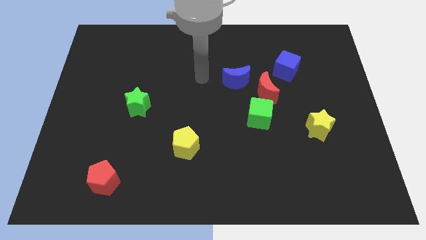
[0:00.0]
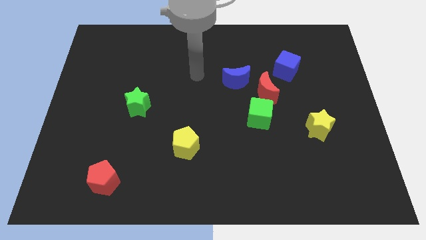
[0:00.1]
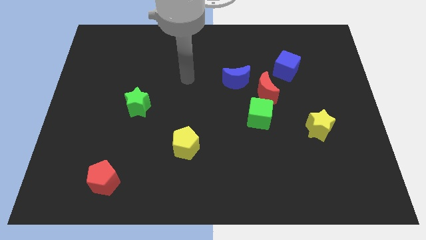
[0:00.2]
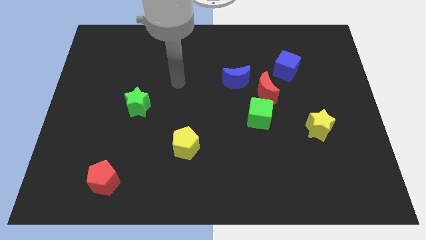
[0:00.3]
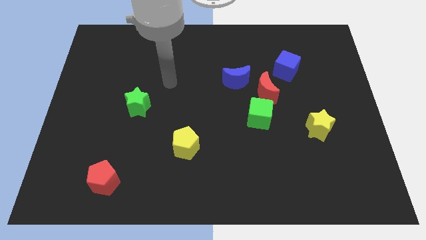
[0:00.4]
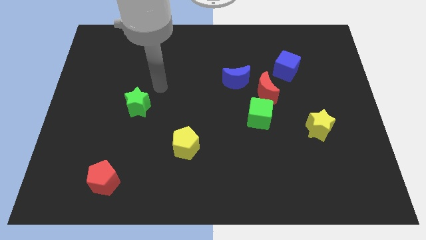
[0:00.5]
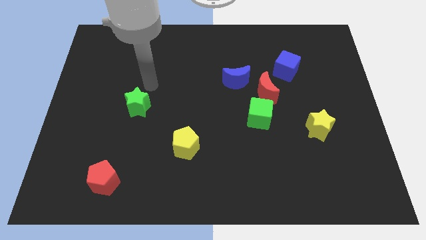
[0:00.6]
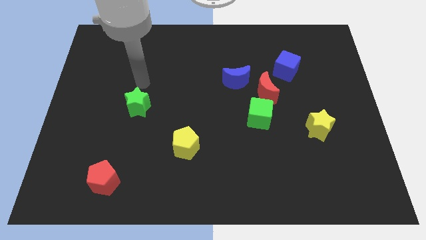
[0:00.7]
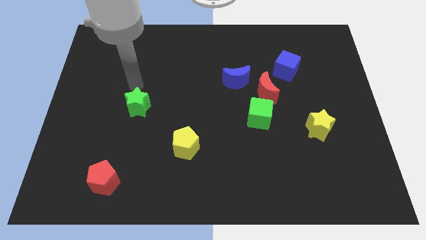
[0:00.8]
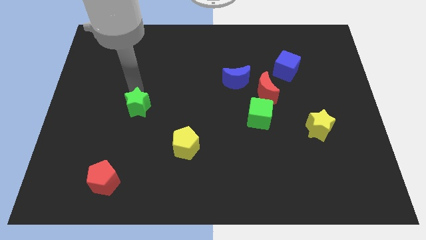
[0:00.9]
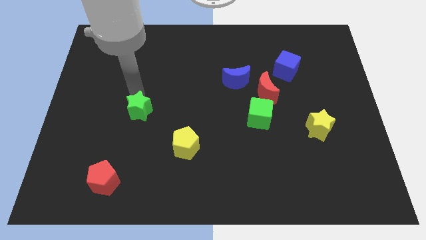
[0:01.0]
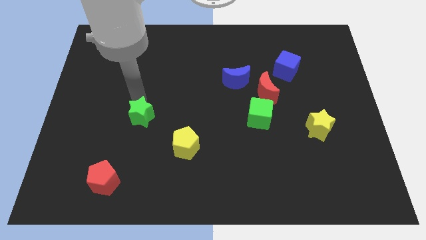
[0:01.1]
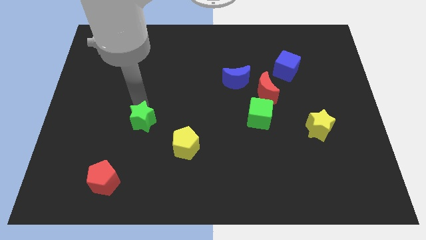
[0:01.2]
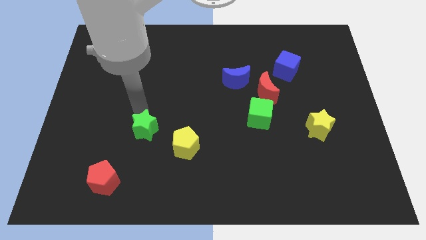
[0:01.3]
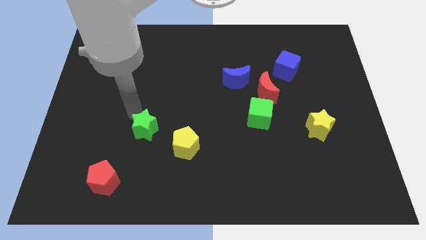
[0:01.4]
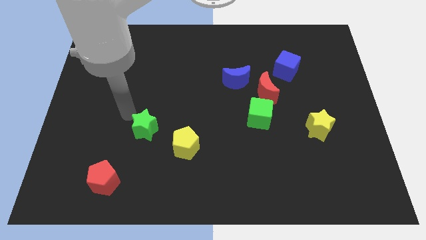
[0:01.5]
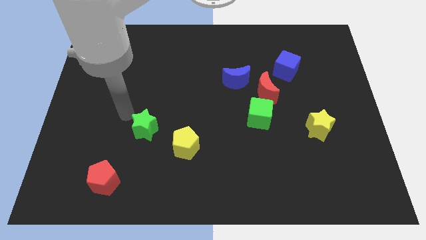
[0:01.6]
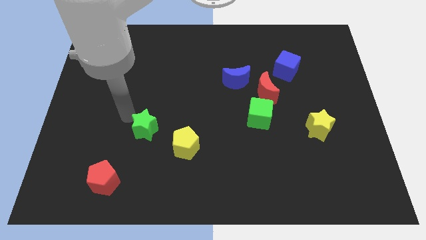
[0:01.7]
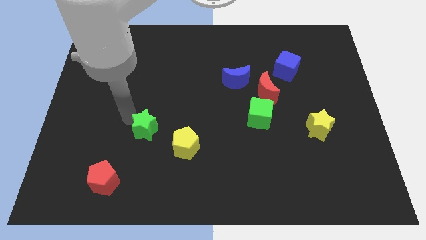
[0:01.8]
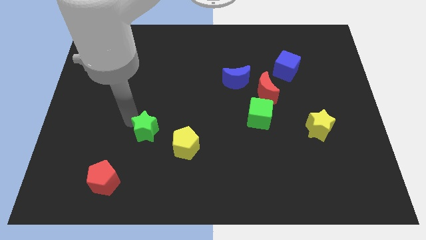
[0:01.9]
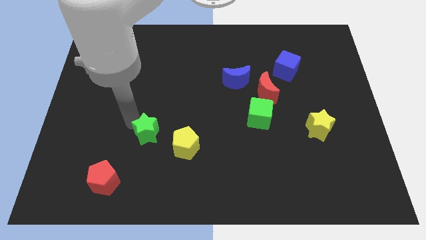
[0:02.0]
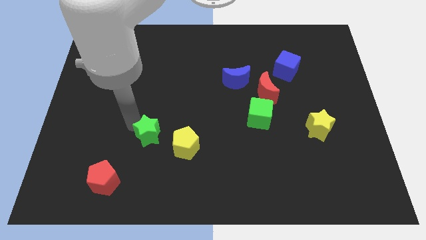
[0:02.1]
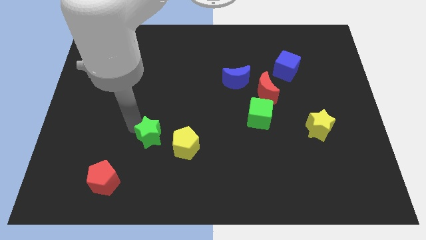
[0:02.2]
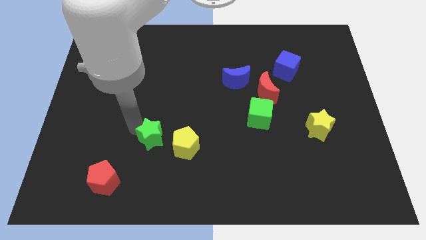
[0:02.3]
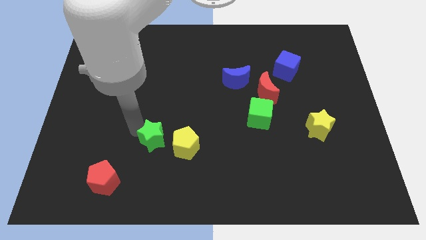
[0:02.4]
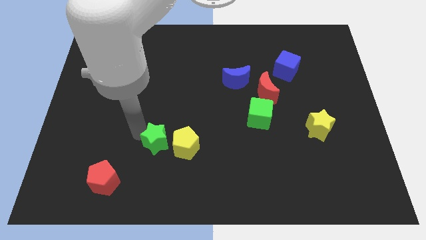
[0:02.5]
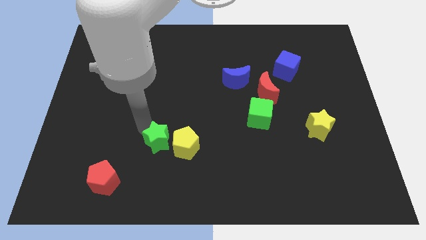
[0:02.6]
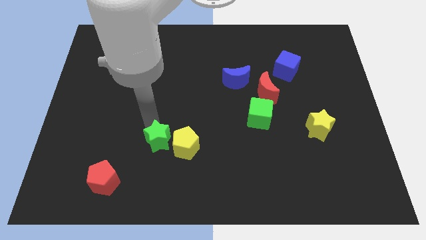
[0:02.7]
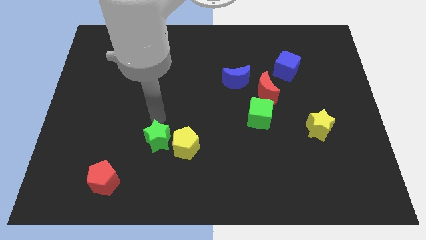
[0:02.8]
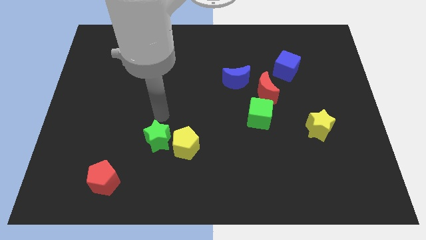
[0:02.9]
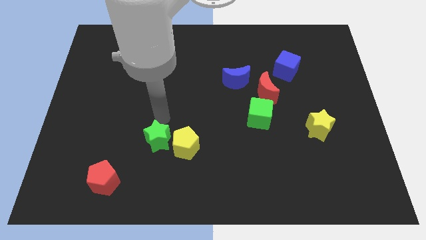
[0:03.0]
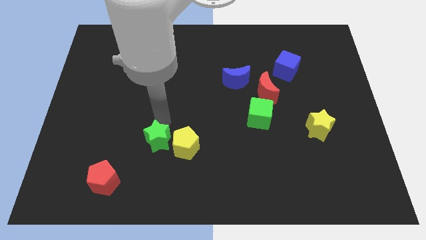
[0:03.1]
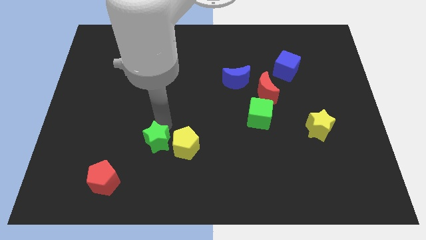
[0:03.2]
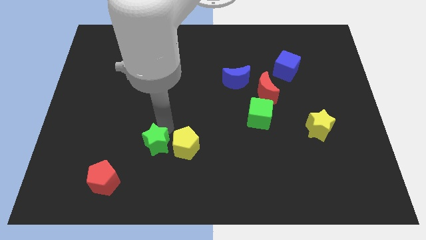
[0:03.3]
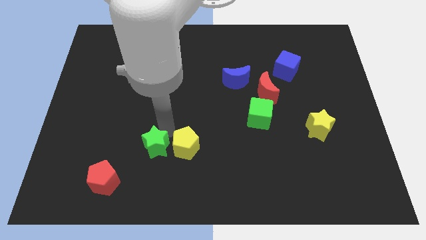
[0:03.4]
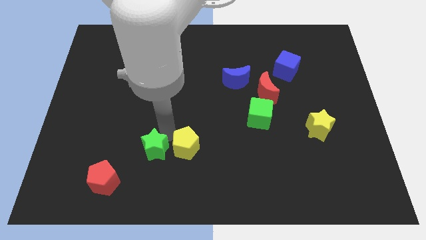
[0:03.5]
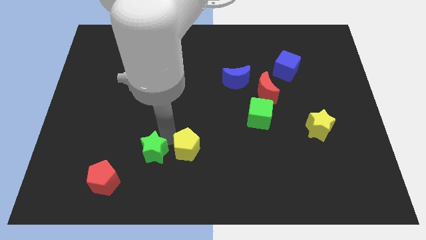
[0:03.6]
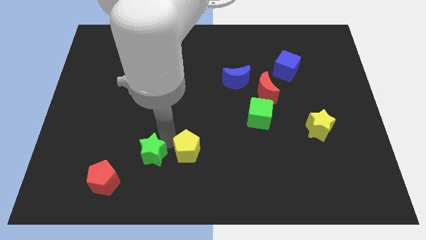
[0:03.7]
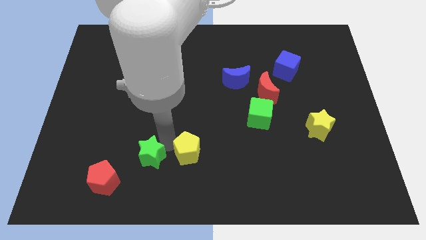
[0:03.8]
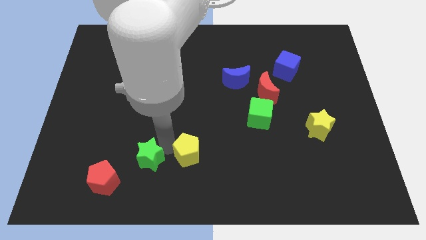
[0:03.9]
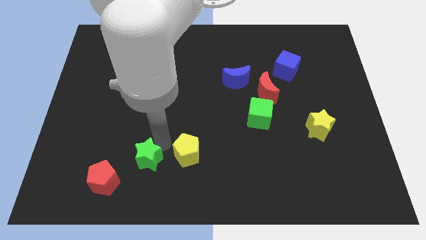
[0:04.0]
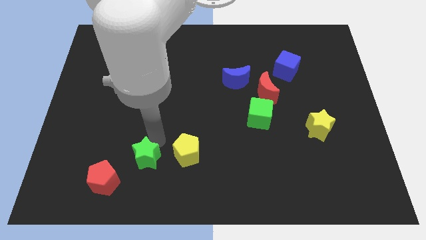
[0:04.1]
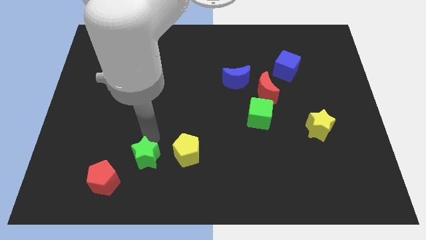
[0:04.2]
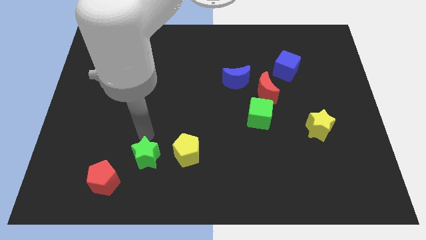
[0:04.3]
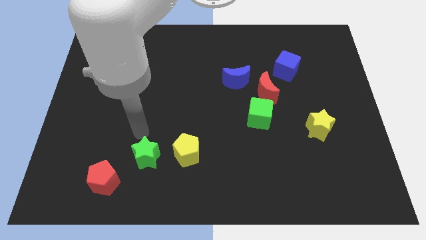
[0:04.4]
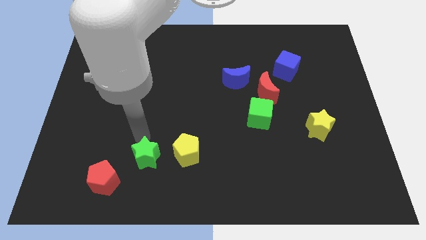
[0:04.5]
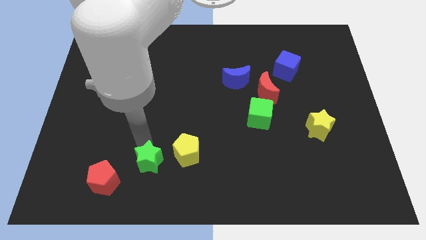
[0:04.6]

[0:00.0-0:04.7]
move the green star to the right side of the red pentagon

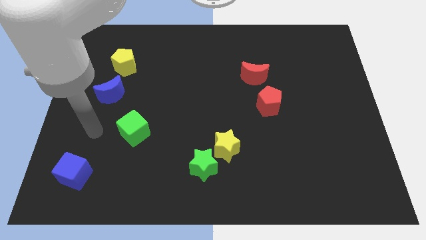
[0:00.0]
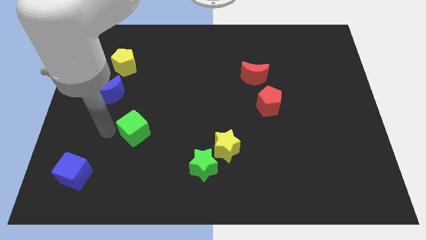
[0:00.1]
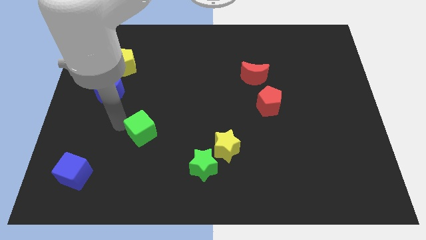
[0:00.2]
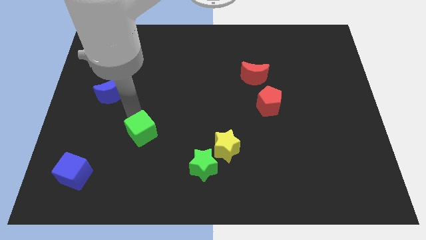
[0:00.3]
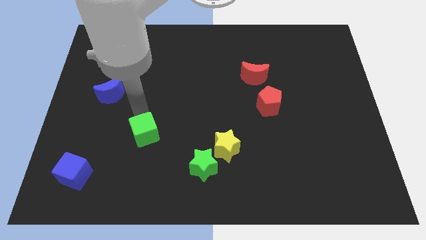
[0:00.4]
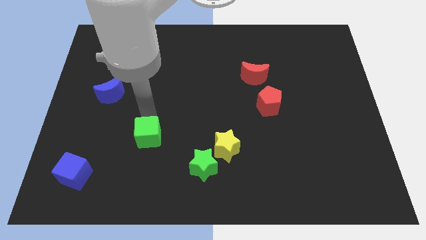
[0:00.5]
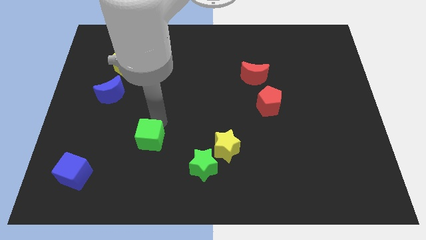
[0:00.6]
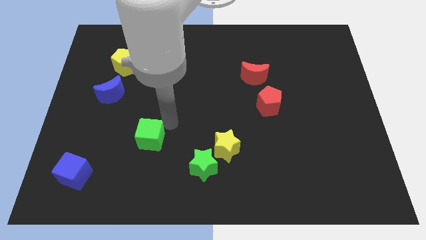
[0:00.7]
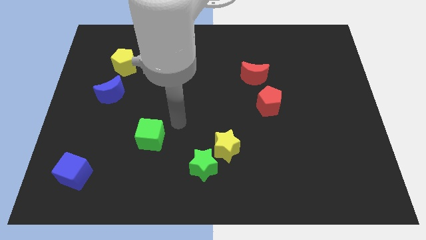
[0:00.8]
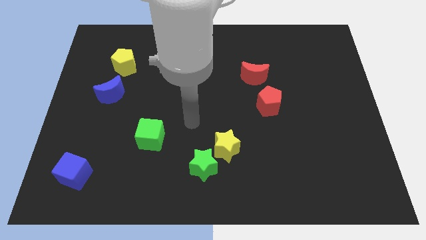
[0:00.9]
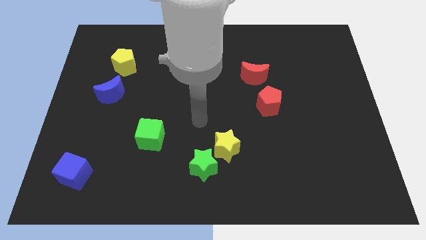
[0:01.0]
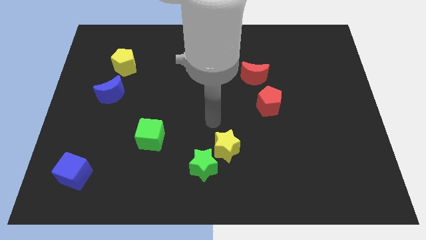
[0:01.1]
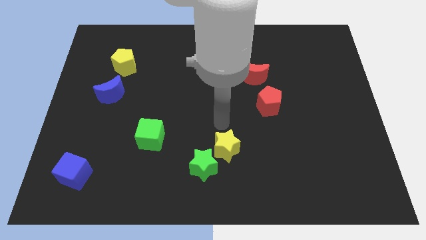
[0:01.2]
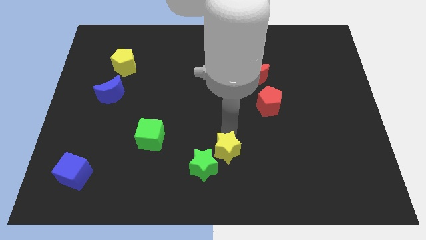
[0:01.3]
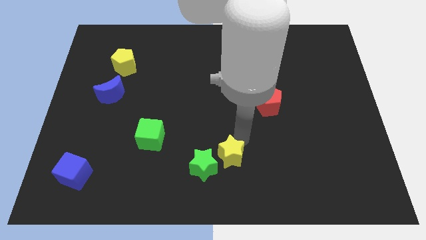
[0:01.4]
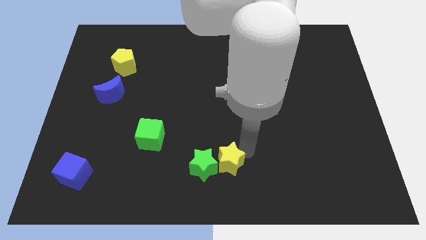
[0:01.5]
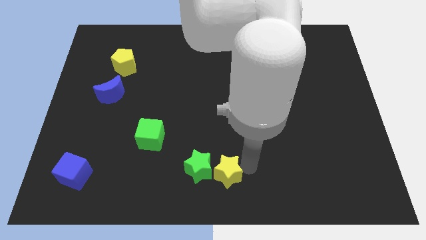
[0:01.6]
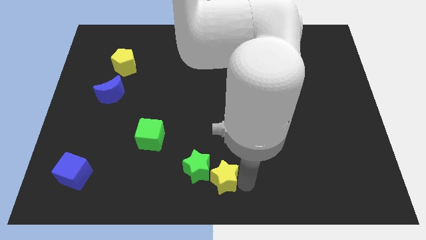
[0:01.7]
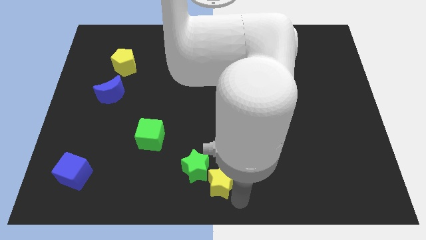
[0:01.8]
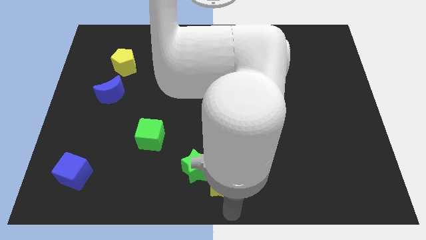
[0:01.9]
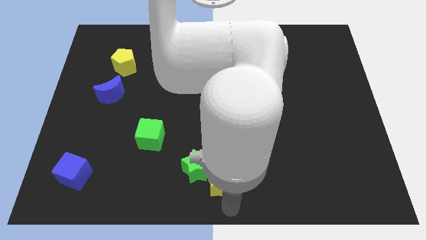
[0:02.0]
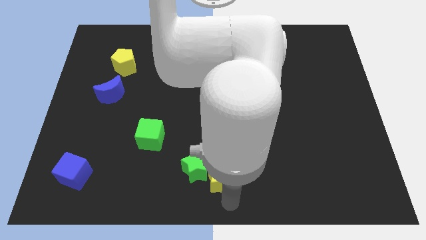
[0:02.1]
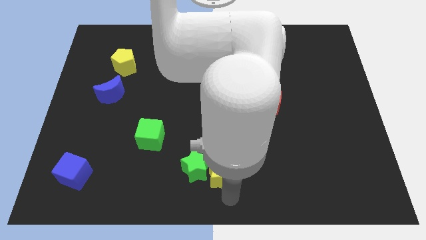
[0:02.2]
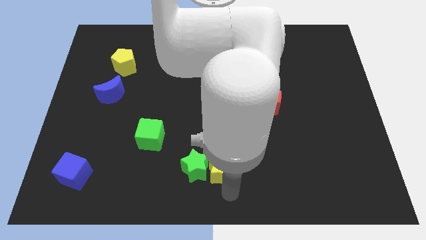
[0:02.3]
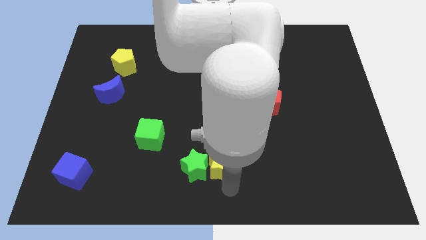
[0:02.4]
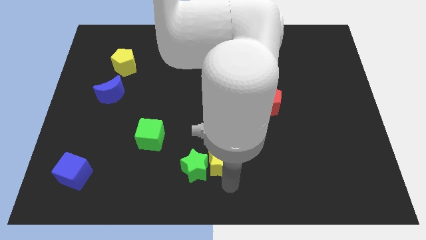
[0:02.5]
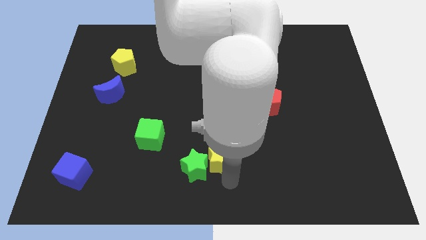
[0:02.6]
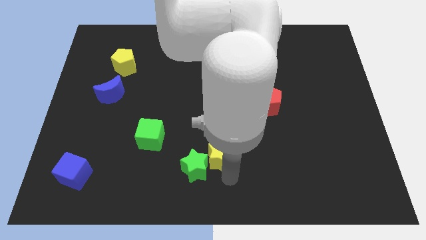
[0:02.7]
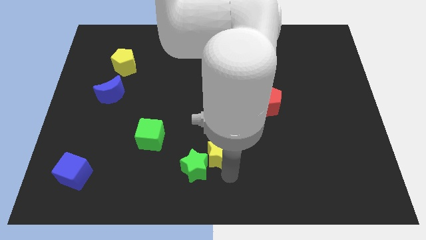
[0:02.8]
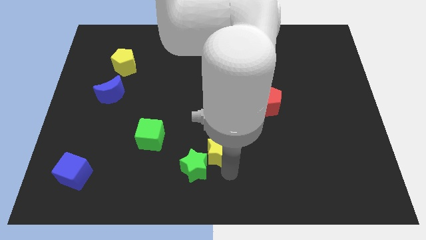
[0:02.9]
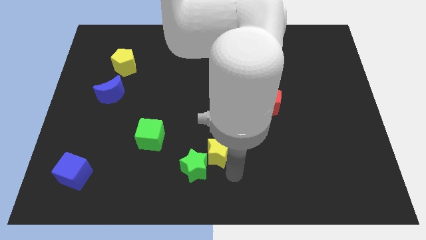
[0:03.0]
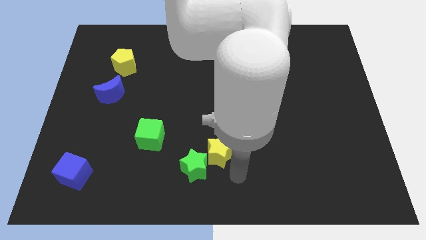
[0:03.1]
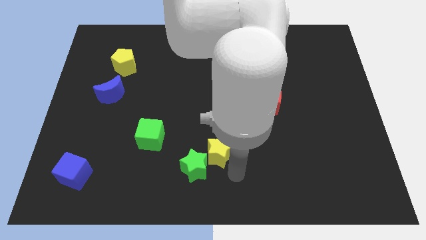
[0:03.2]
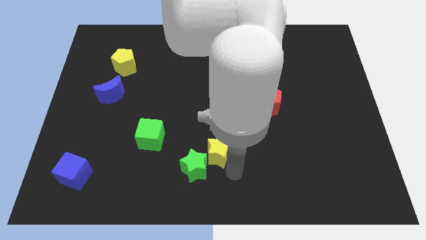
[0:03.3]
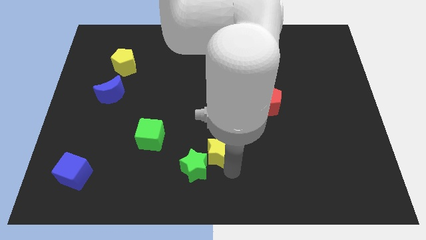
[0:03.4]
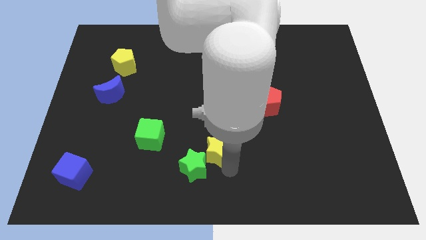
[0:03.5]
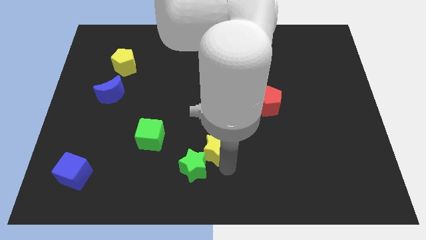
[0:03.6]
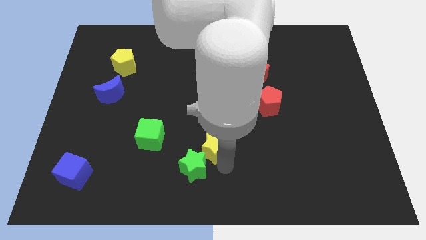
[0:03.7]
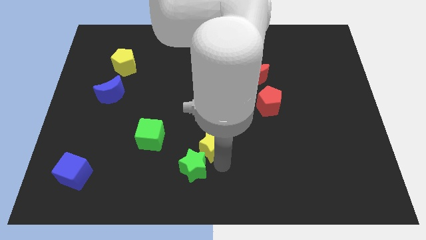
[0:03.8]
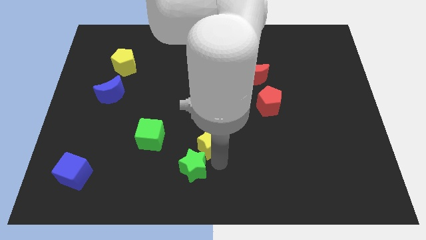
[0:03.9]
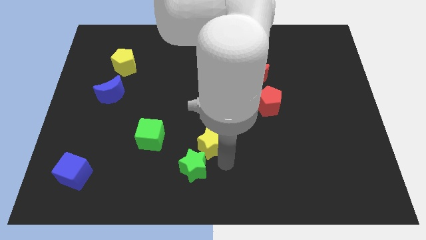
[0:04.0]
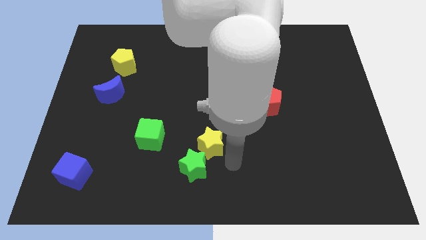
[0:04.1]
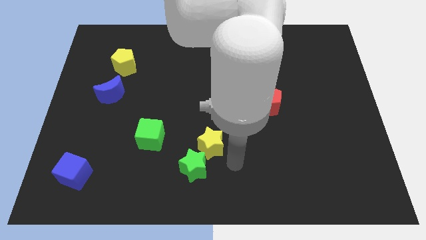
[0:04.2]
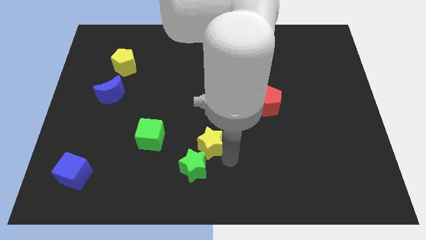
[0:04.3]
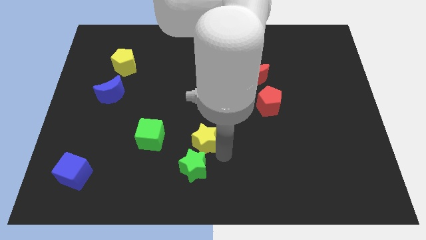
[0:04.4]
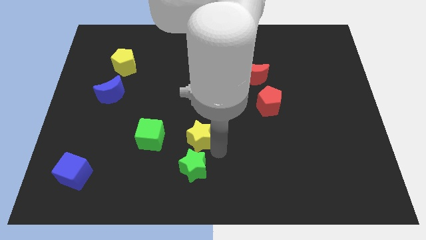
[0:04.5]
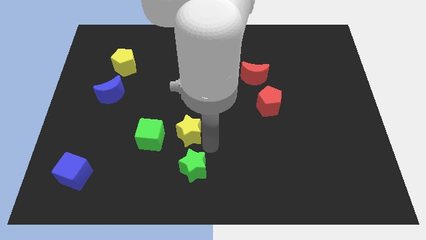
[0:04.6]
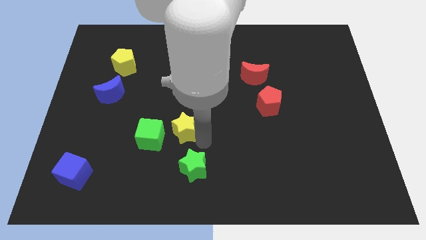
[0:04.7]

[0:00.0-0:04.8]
push the yellow star diagonally up and to the right of the green cube
